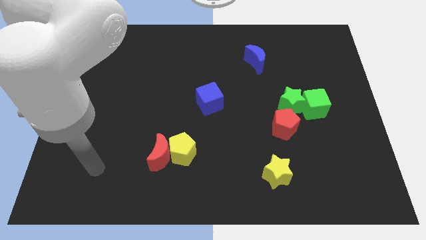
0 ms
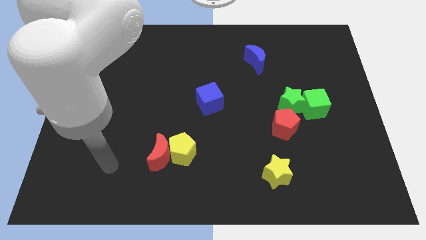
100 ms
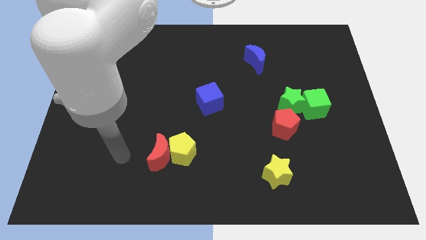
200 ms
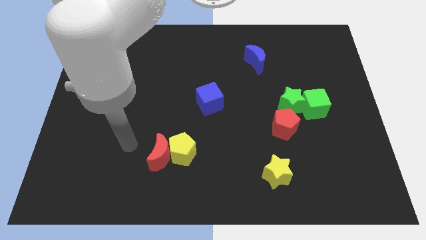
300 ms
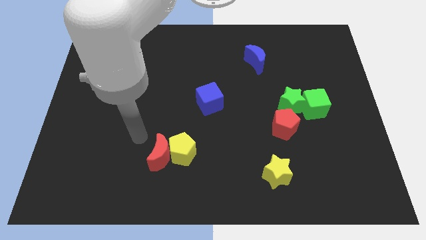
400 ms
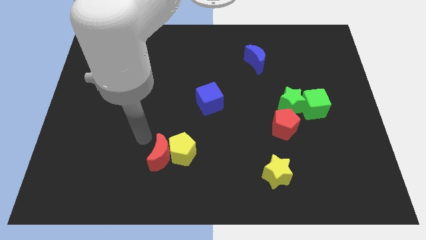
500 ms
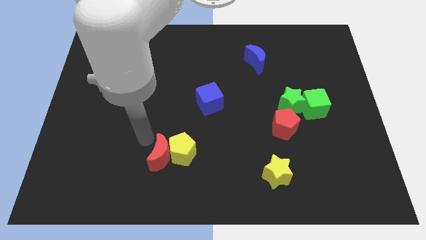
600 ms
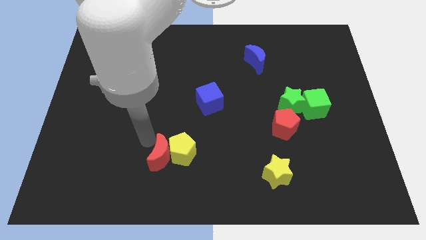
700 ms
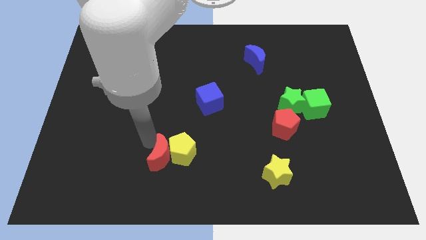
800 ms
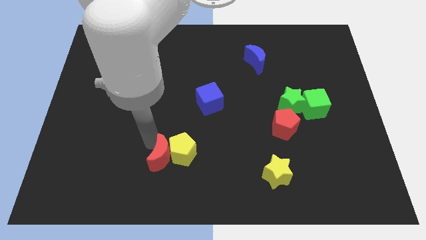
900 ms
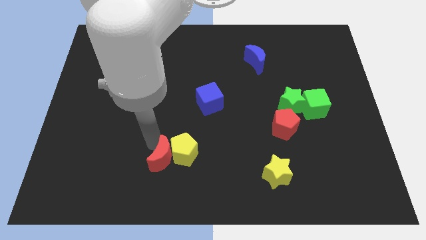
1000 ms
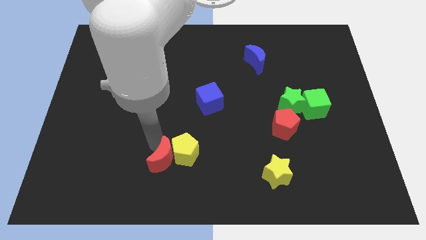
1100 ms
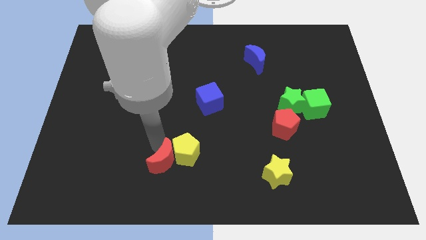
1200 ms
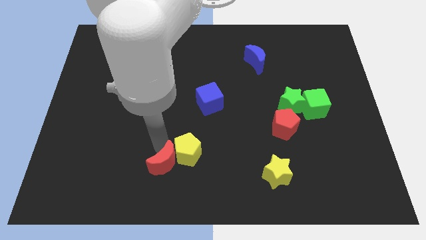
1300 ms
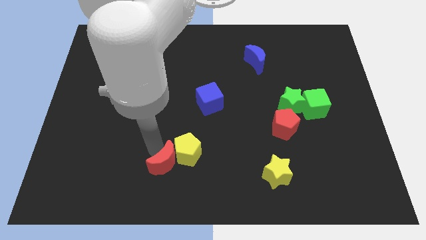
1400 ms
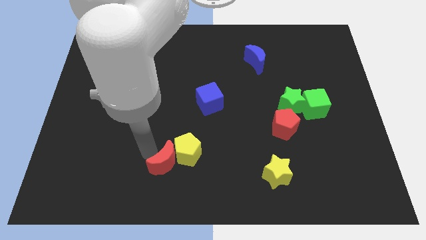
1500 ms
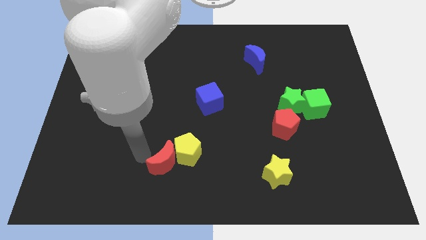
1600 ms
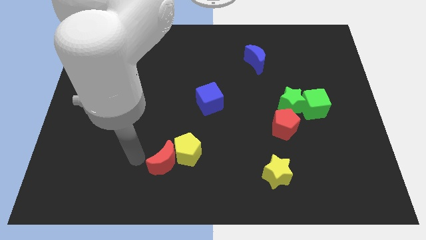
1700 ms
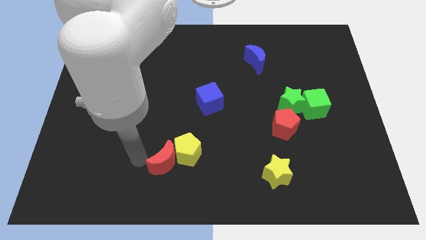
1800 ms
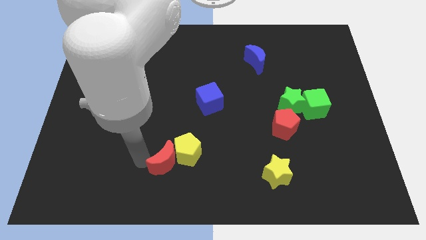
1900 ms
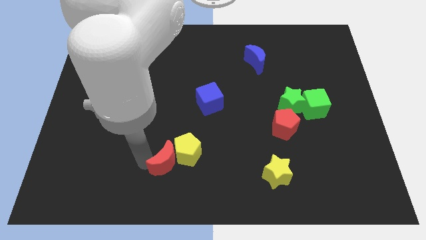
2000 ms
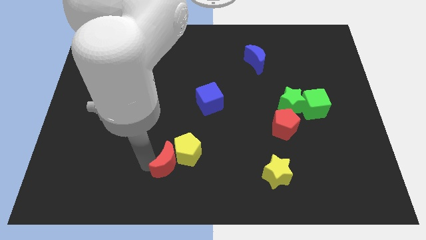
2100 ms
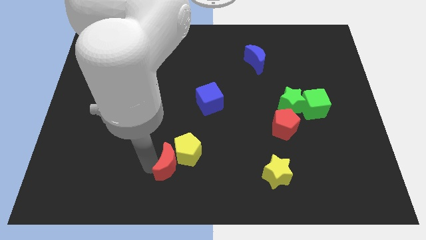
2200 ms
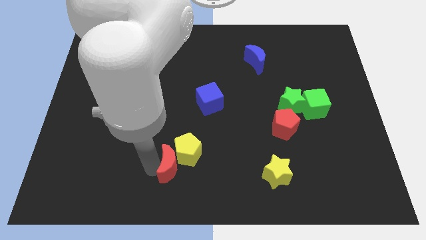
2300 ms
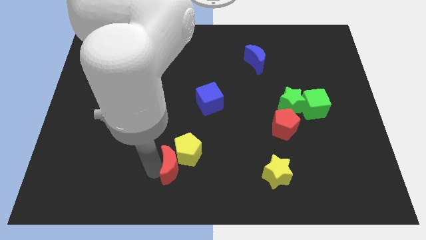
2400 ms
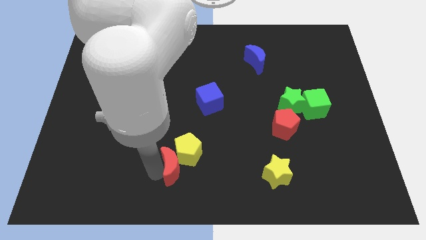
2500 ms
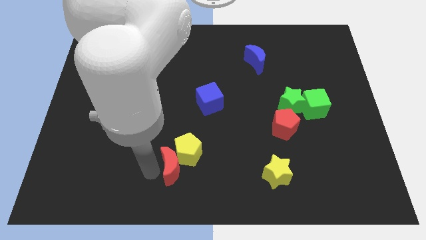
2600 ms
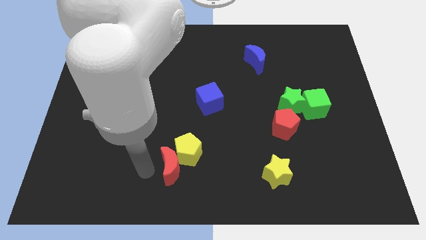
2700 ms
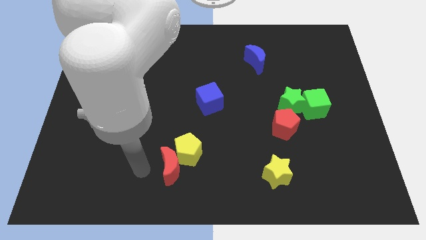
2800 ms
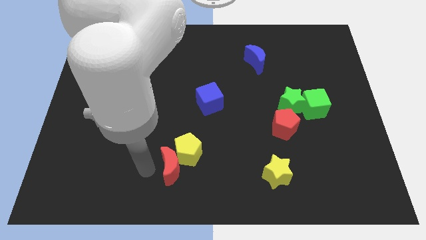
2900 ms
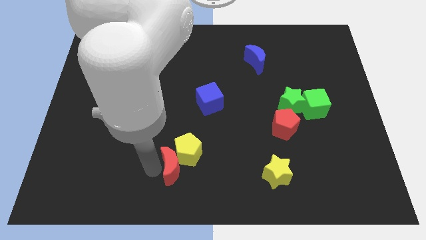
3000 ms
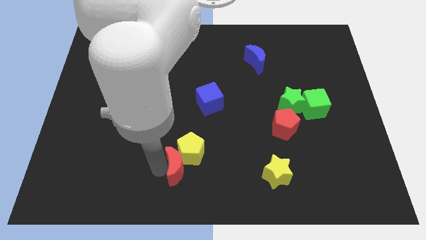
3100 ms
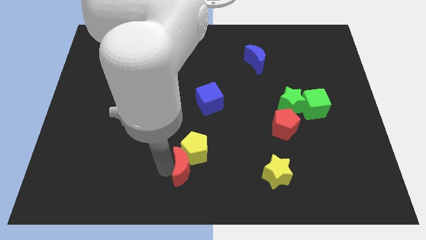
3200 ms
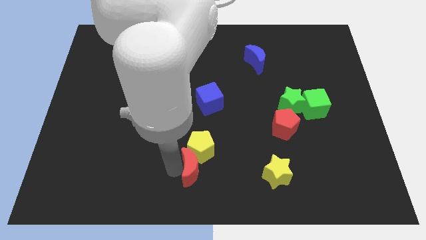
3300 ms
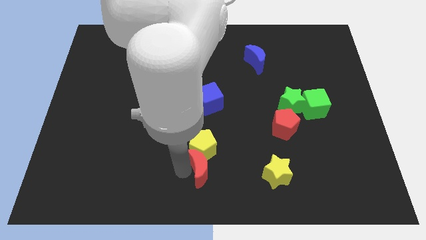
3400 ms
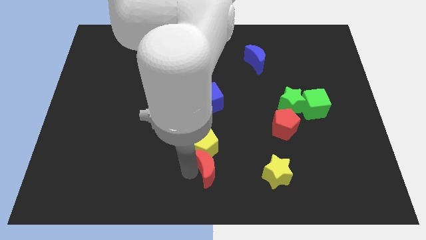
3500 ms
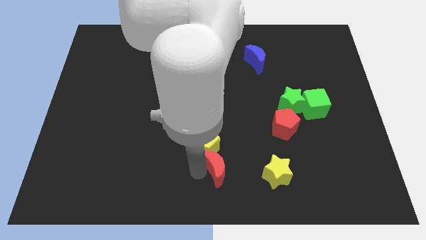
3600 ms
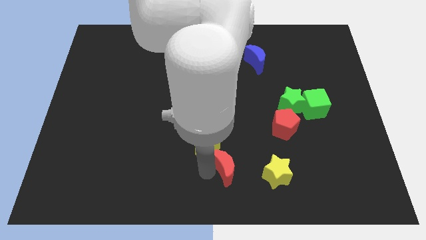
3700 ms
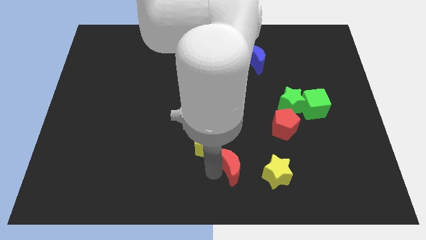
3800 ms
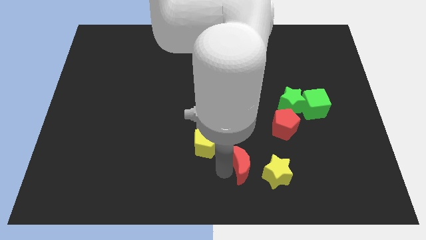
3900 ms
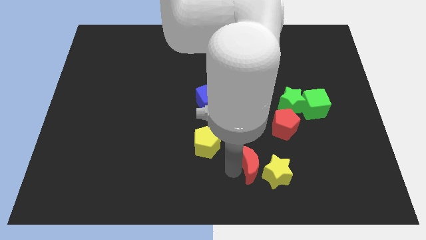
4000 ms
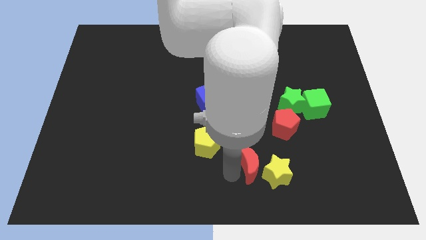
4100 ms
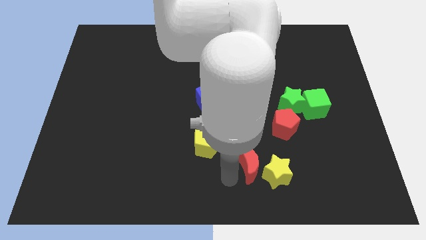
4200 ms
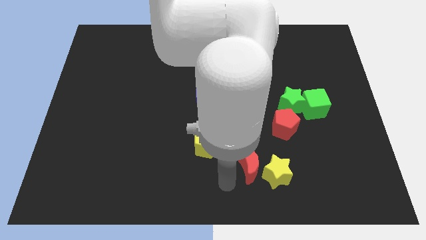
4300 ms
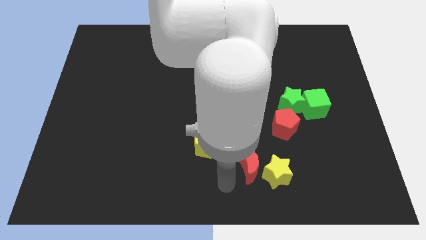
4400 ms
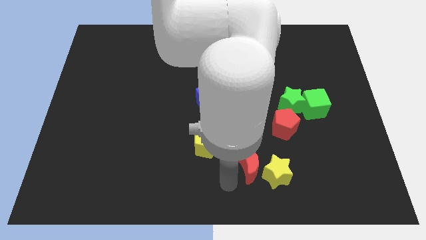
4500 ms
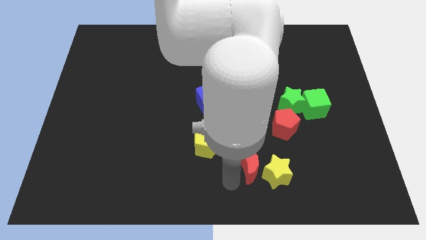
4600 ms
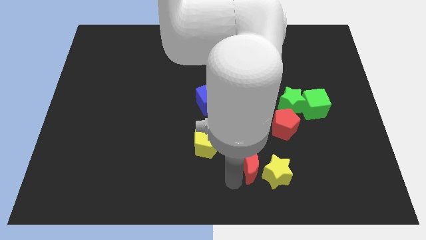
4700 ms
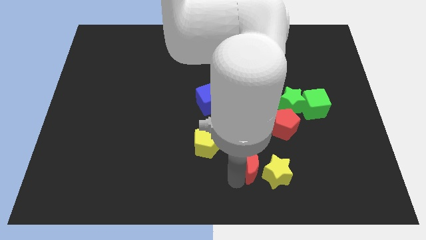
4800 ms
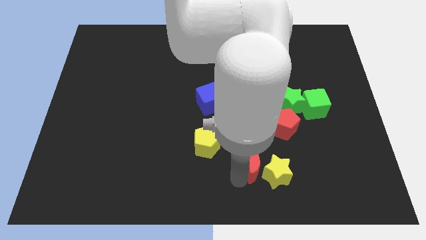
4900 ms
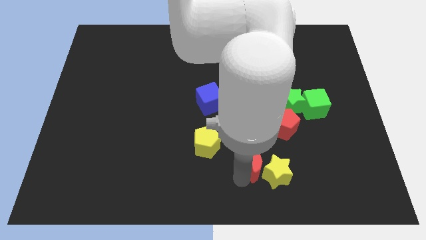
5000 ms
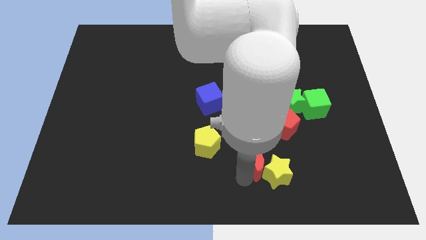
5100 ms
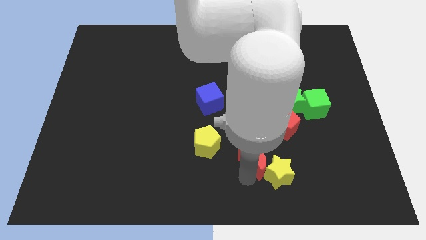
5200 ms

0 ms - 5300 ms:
slide the red moon to the right

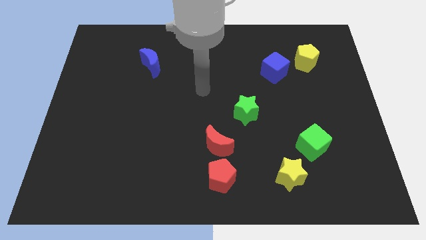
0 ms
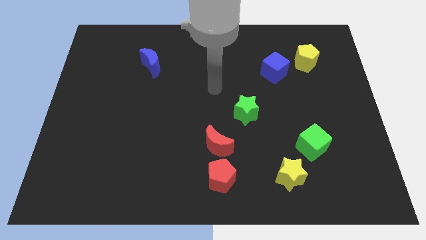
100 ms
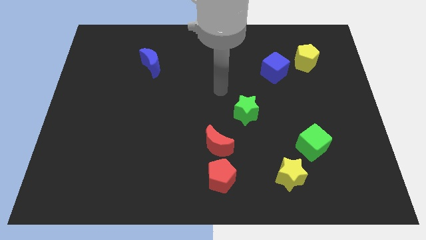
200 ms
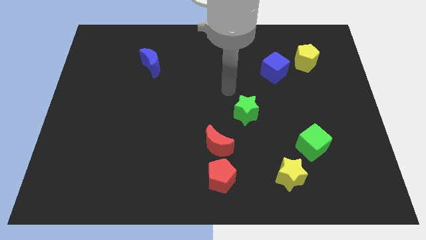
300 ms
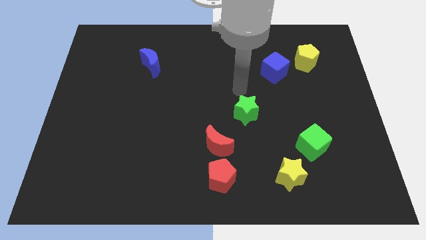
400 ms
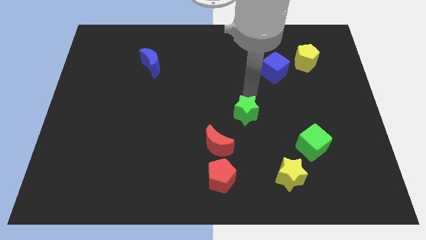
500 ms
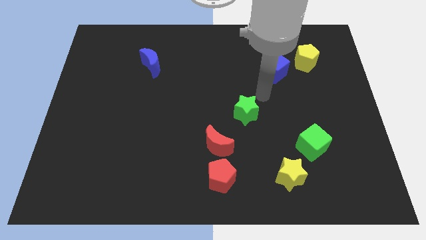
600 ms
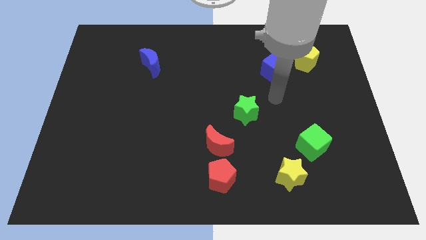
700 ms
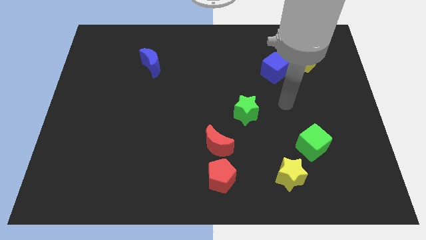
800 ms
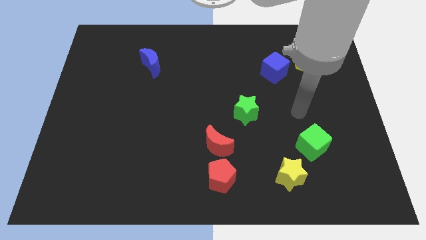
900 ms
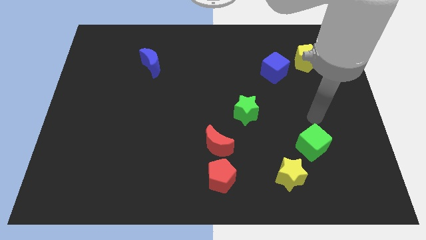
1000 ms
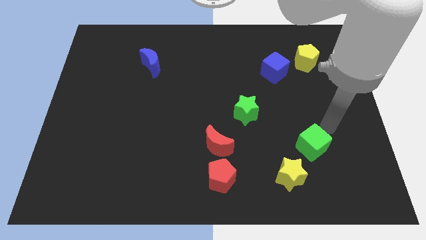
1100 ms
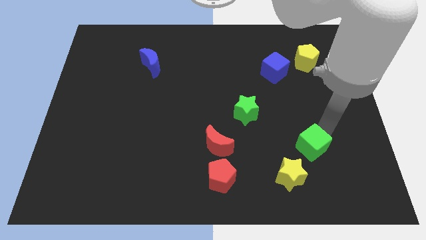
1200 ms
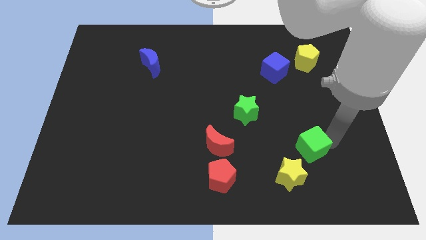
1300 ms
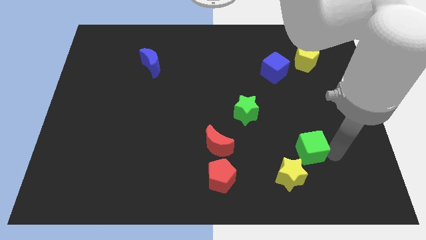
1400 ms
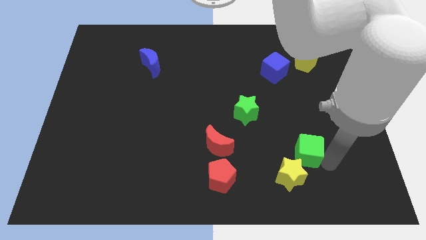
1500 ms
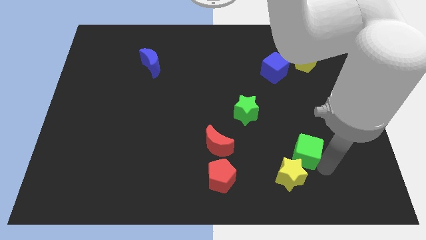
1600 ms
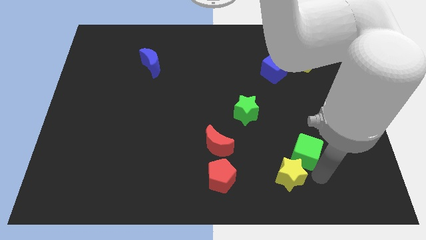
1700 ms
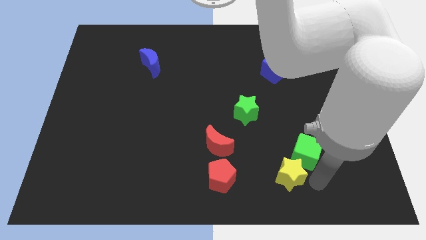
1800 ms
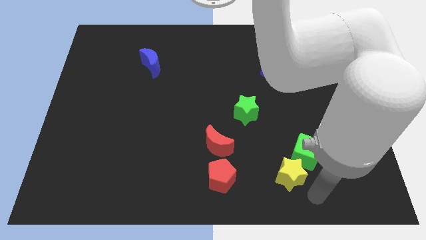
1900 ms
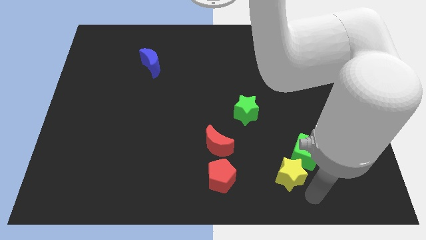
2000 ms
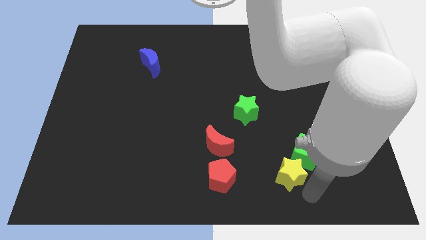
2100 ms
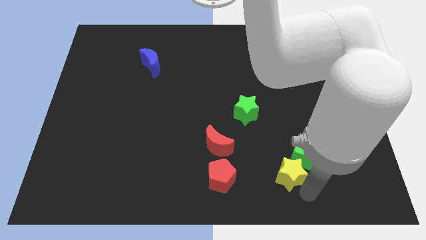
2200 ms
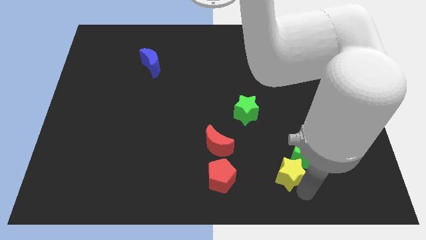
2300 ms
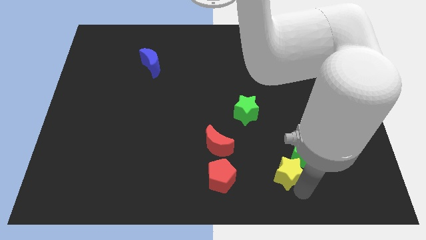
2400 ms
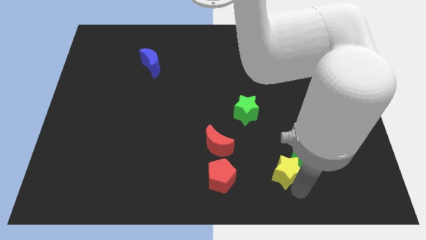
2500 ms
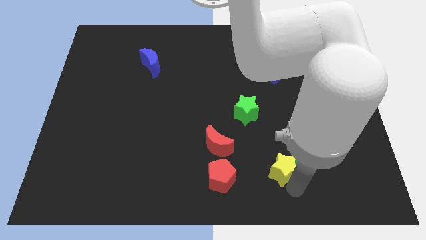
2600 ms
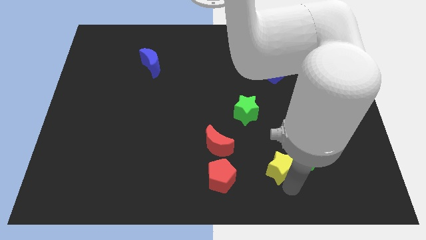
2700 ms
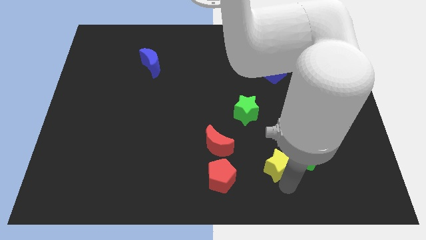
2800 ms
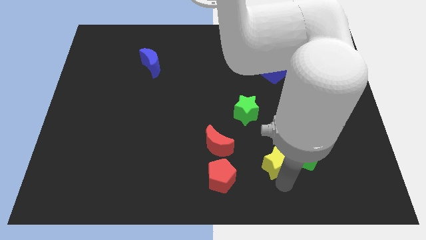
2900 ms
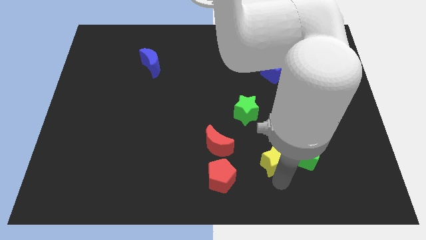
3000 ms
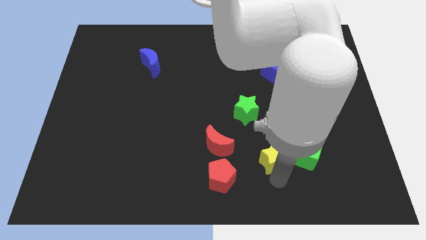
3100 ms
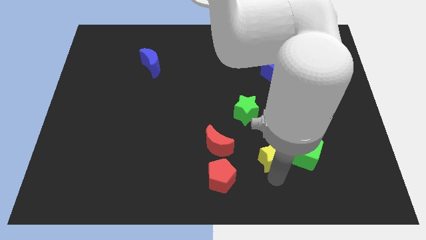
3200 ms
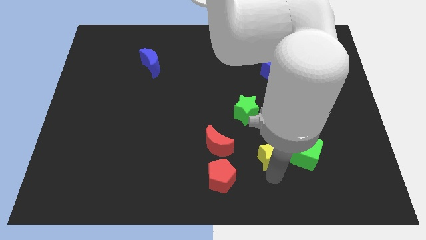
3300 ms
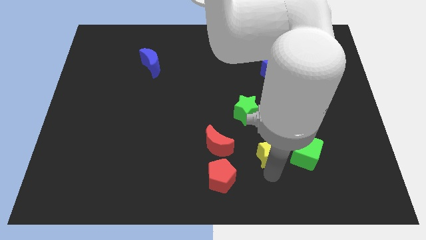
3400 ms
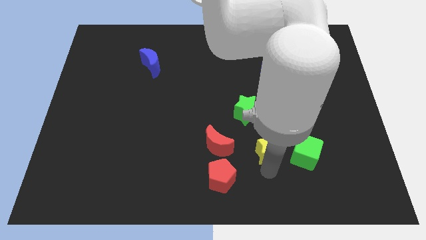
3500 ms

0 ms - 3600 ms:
slide the yellow star diagonally upwards and left a little bit
